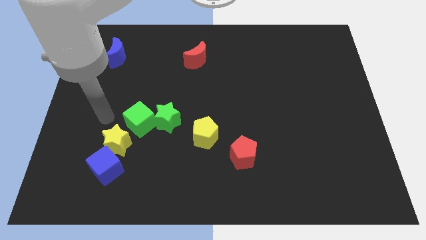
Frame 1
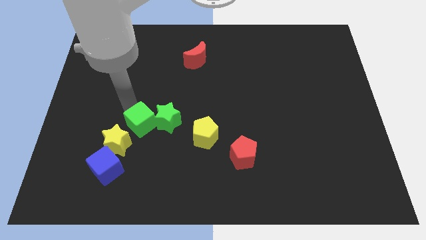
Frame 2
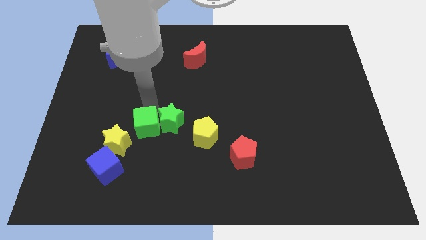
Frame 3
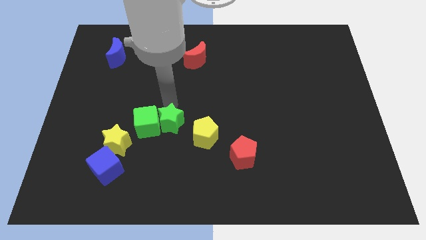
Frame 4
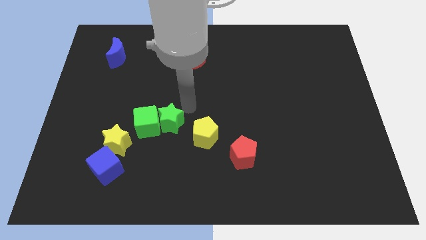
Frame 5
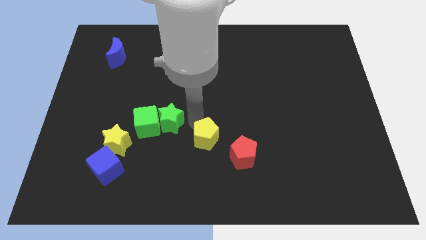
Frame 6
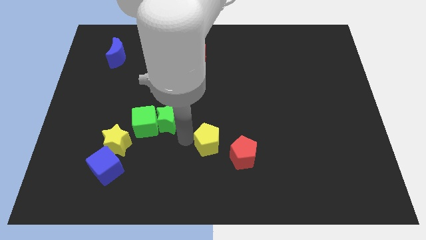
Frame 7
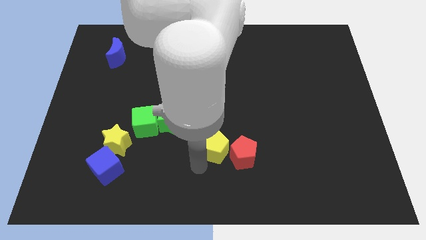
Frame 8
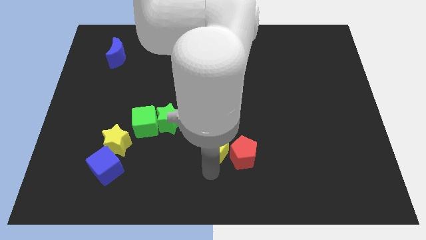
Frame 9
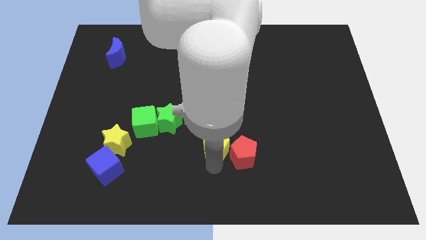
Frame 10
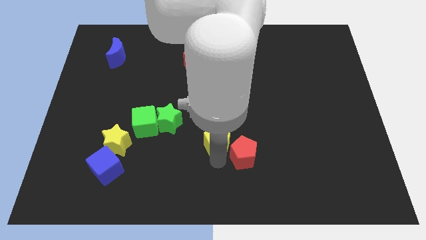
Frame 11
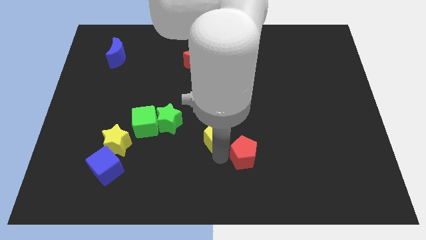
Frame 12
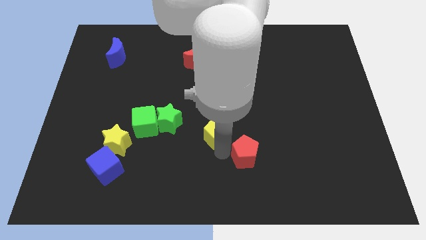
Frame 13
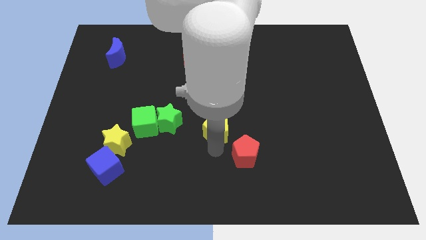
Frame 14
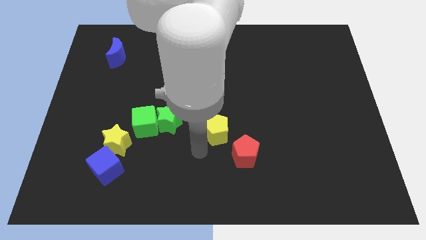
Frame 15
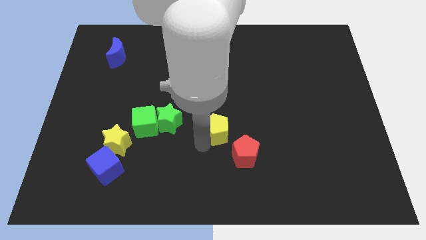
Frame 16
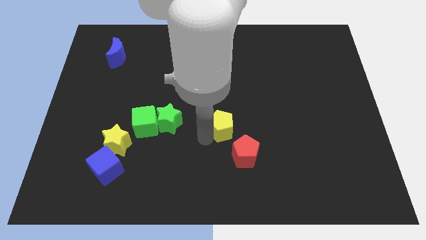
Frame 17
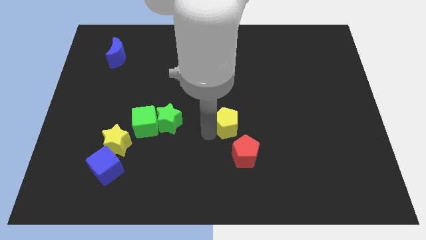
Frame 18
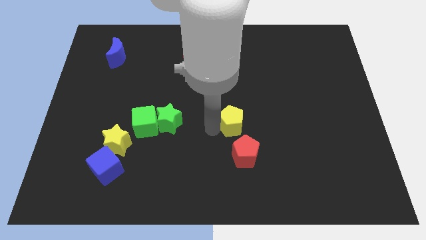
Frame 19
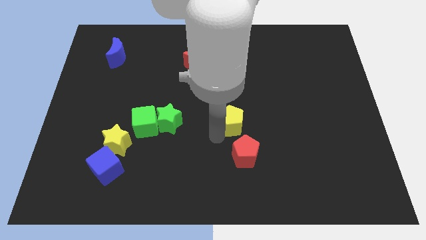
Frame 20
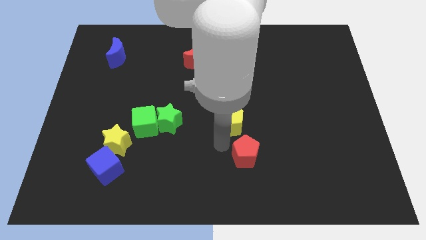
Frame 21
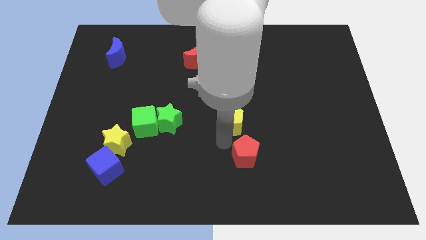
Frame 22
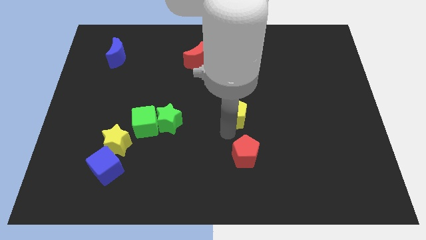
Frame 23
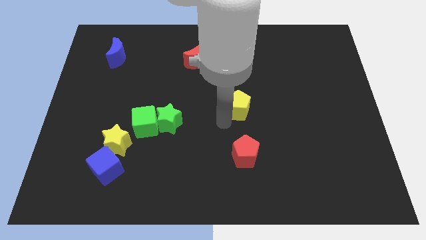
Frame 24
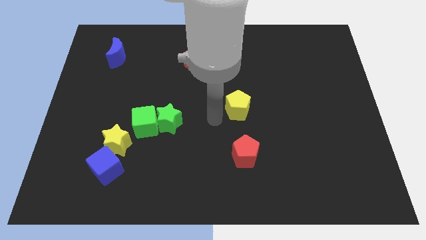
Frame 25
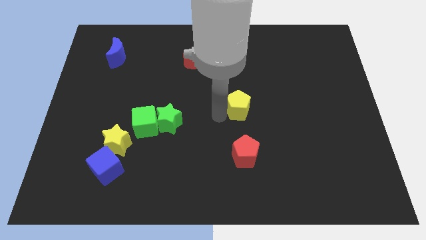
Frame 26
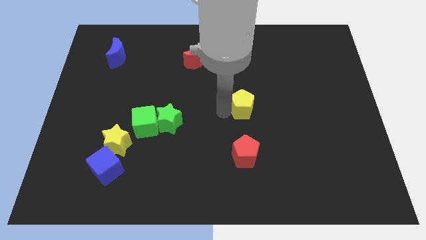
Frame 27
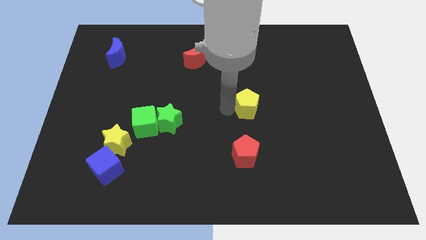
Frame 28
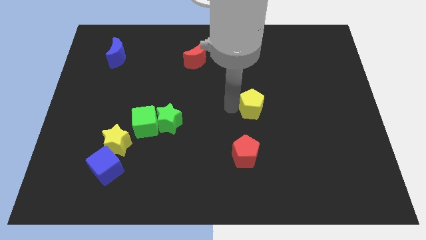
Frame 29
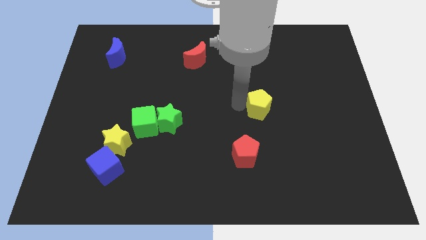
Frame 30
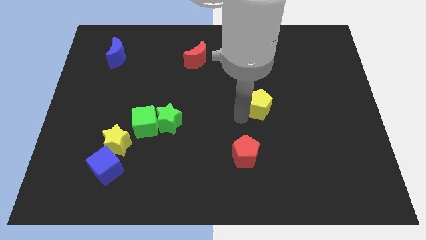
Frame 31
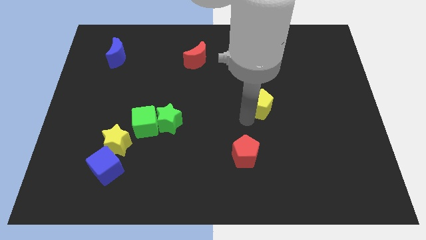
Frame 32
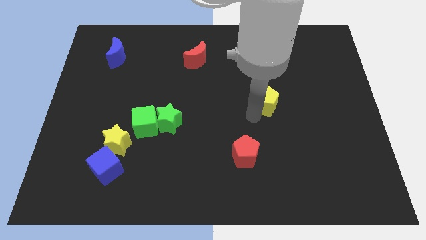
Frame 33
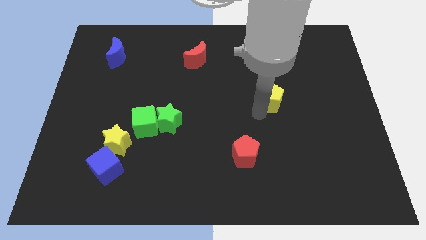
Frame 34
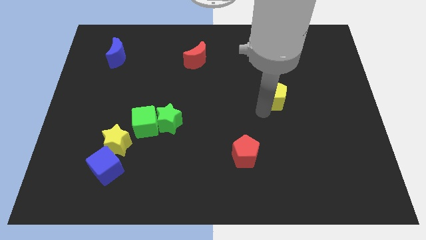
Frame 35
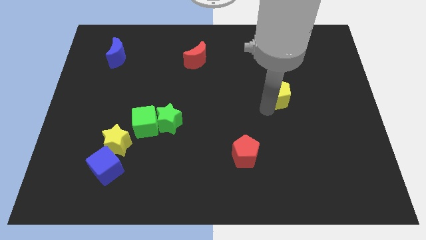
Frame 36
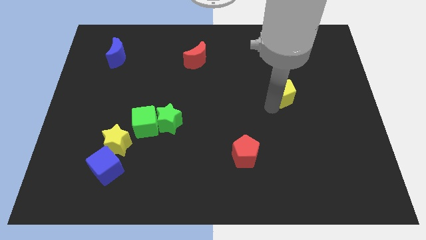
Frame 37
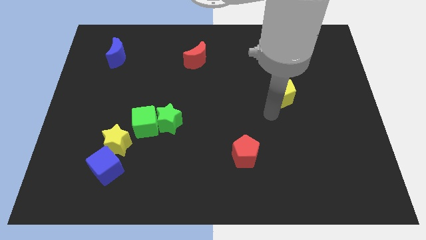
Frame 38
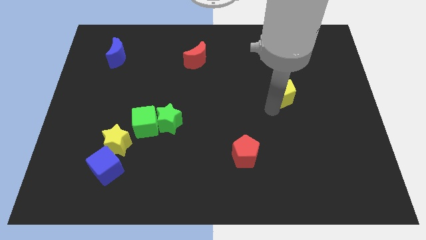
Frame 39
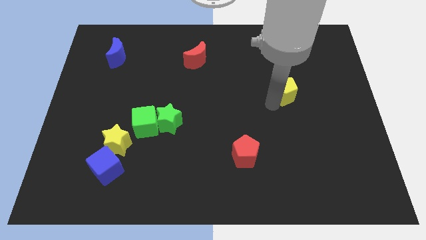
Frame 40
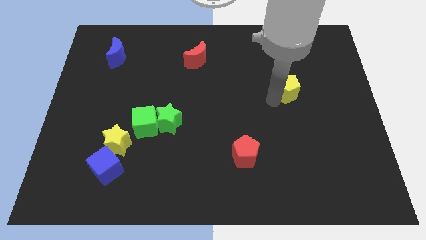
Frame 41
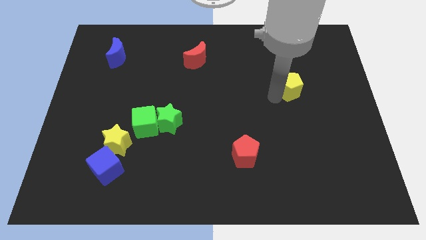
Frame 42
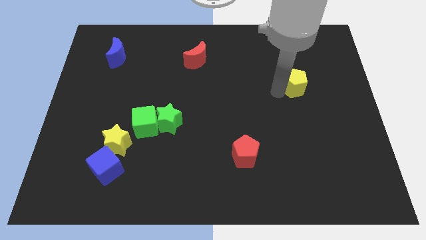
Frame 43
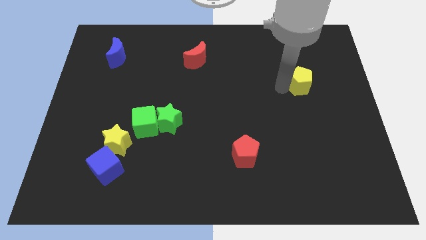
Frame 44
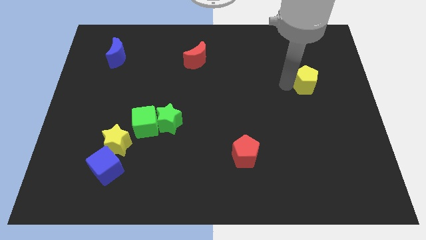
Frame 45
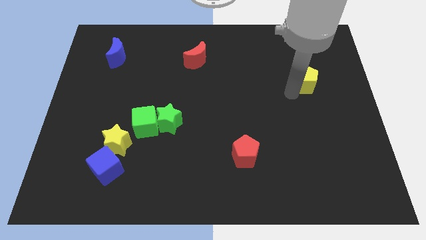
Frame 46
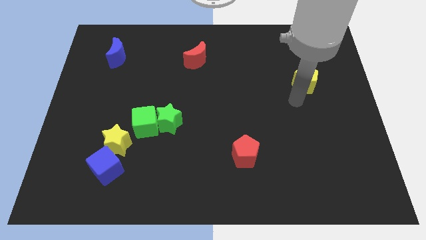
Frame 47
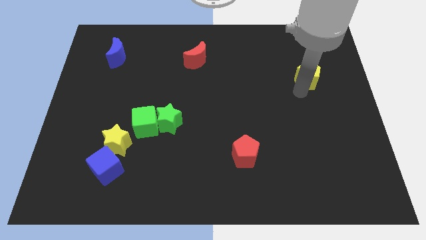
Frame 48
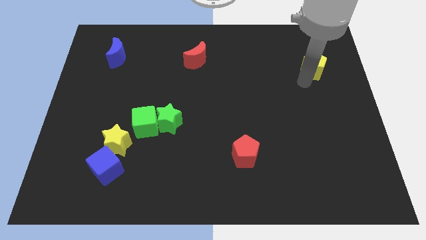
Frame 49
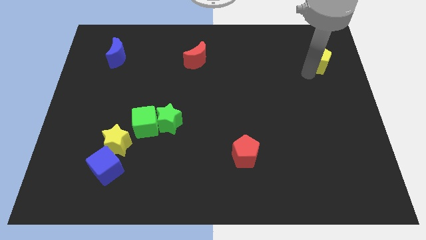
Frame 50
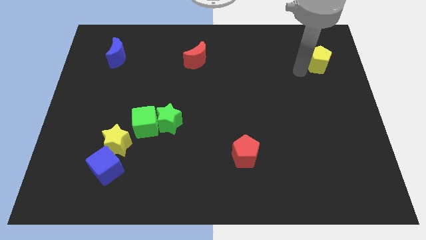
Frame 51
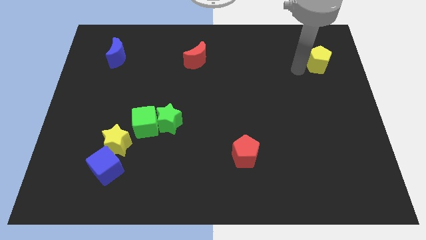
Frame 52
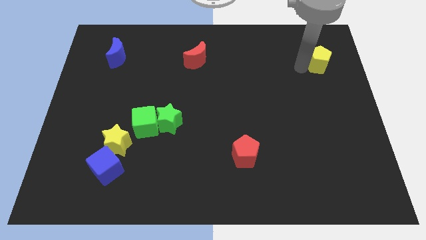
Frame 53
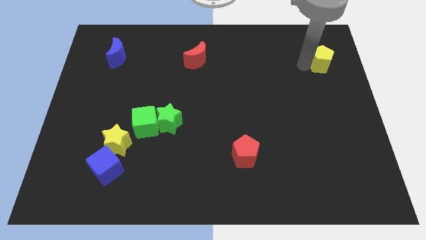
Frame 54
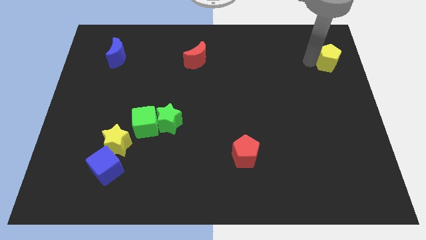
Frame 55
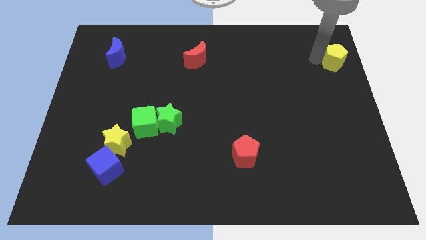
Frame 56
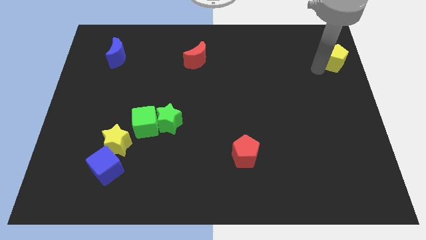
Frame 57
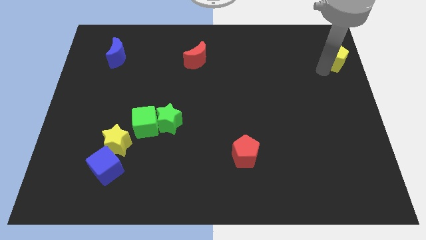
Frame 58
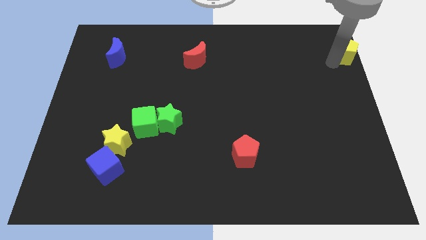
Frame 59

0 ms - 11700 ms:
put the yellow pentagon to the top right

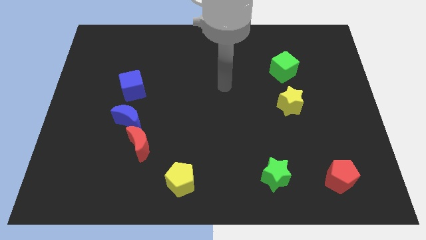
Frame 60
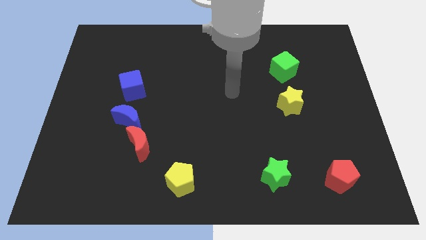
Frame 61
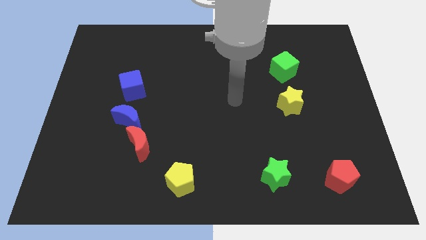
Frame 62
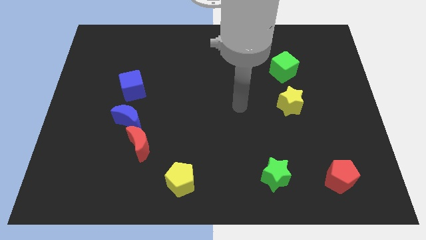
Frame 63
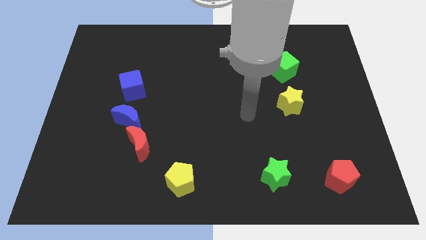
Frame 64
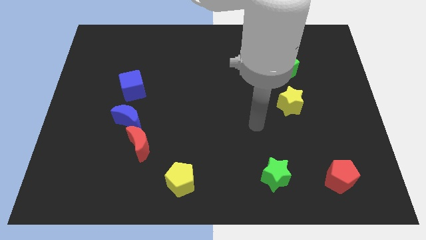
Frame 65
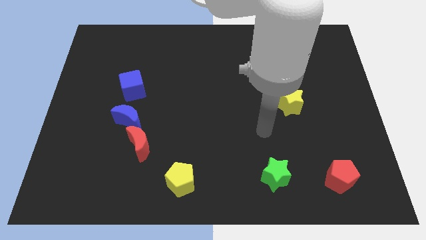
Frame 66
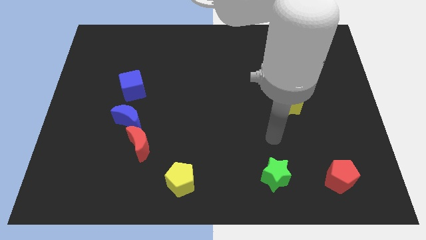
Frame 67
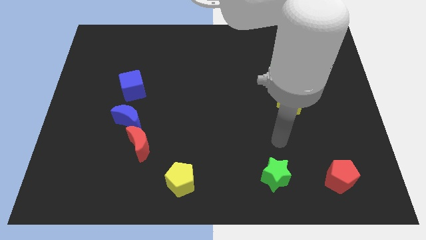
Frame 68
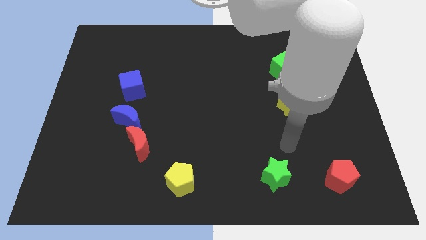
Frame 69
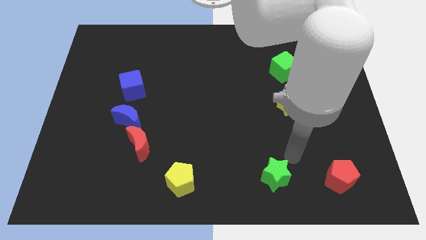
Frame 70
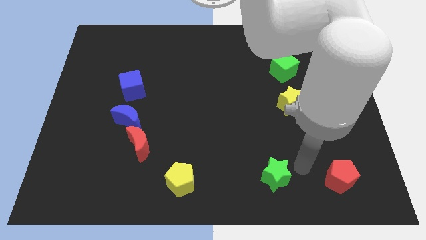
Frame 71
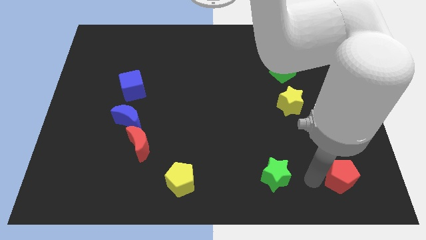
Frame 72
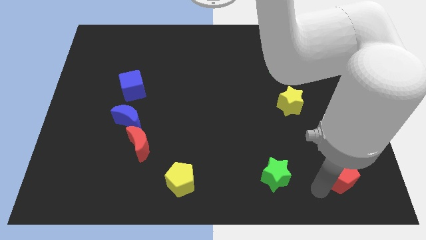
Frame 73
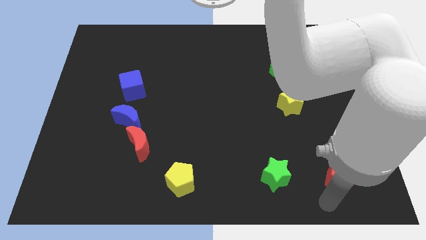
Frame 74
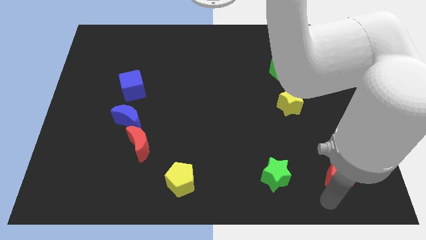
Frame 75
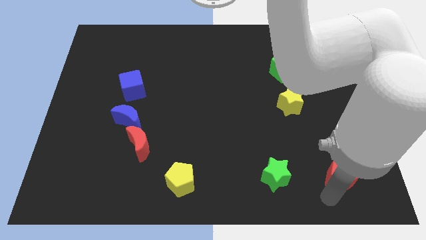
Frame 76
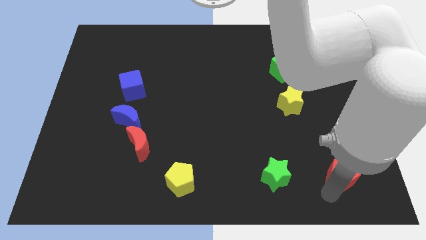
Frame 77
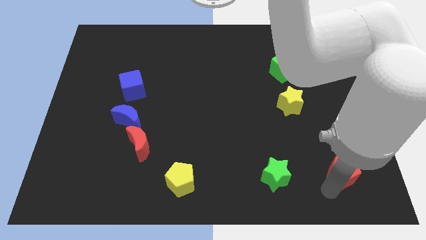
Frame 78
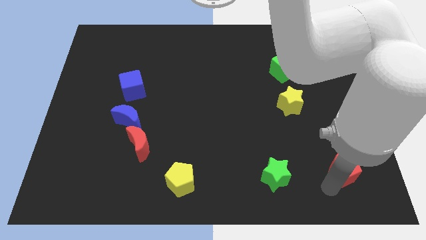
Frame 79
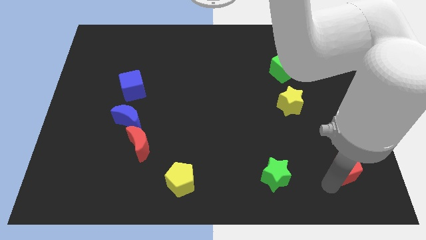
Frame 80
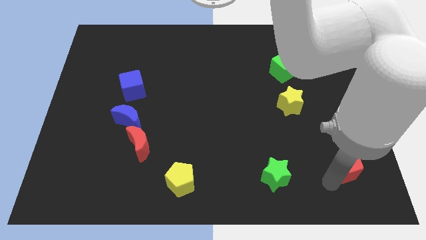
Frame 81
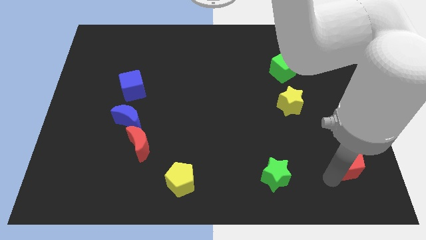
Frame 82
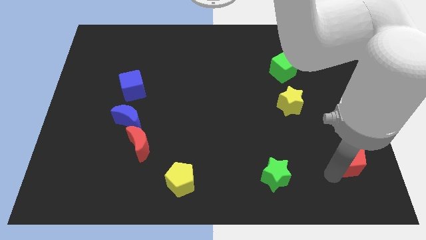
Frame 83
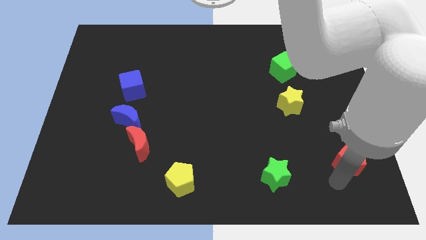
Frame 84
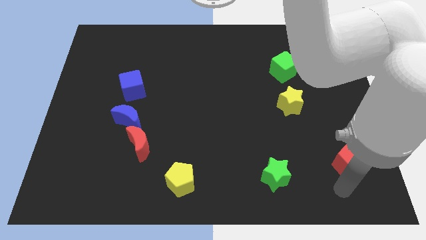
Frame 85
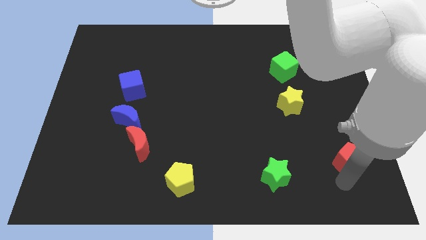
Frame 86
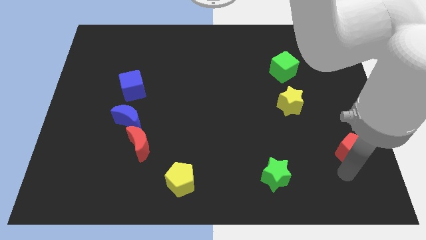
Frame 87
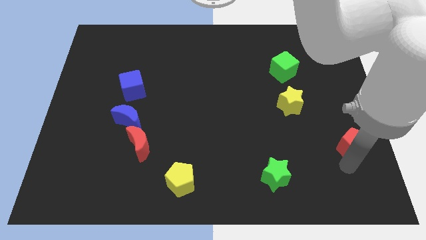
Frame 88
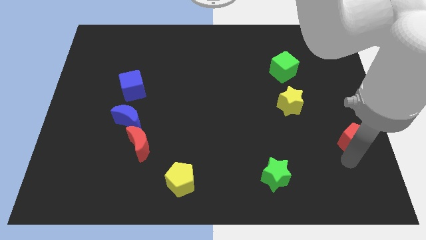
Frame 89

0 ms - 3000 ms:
slide the red pentagon to the center right
